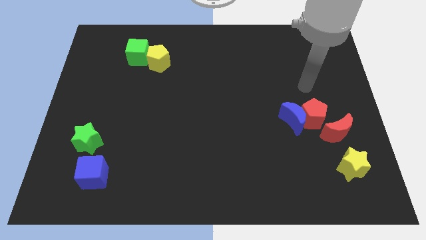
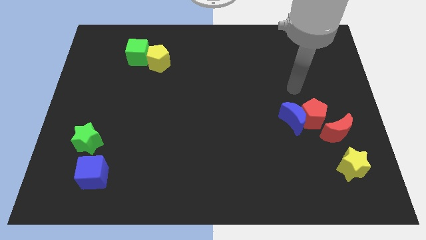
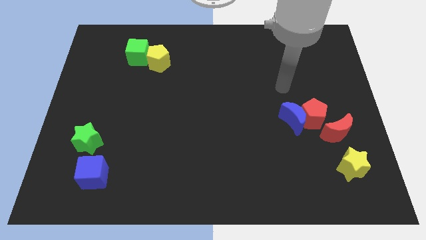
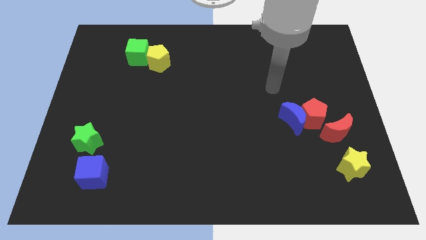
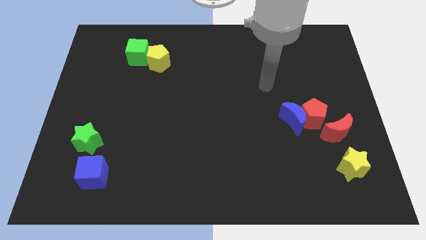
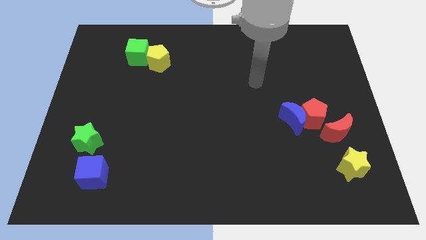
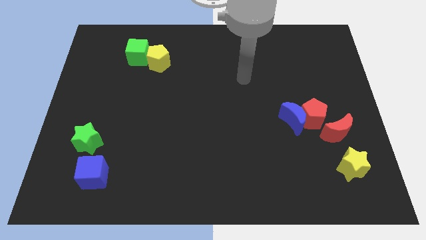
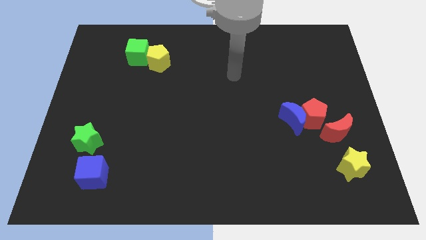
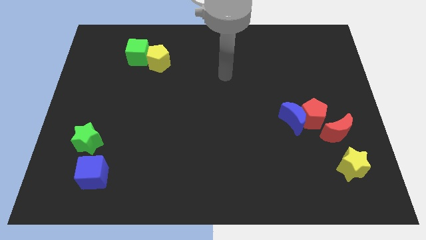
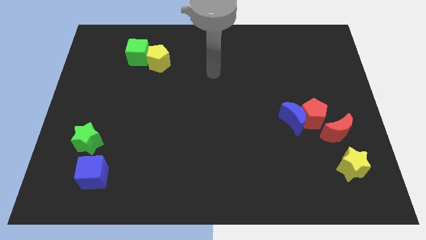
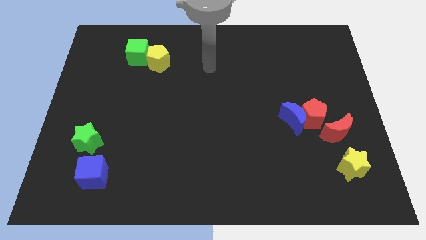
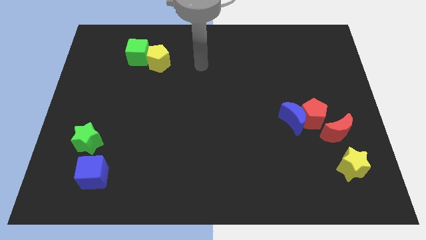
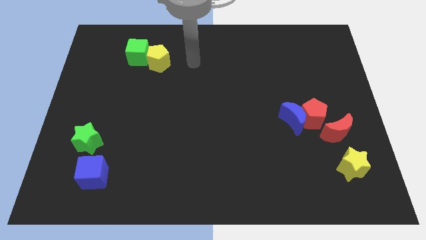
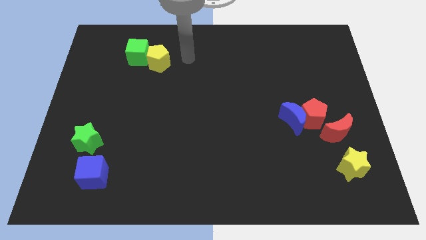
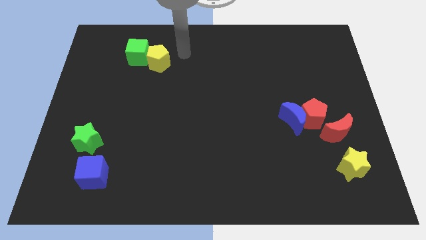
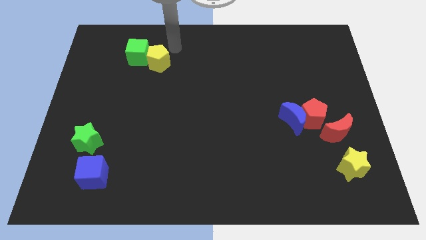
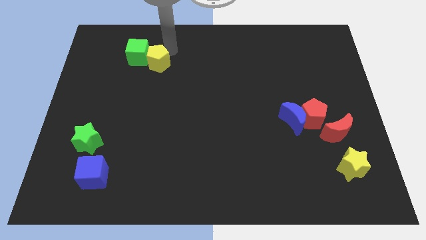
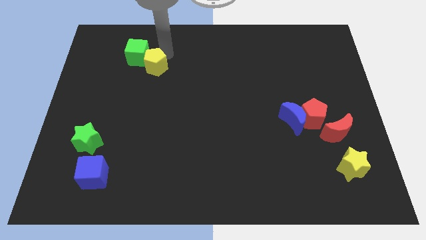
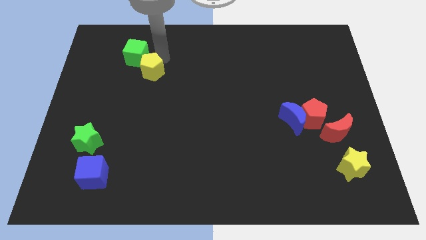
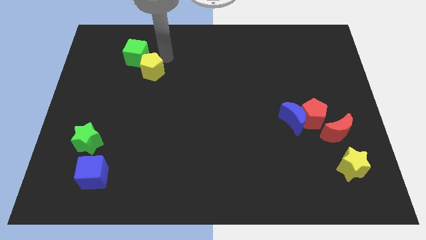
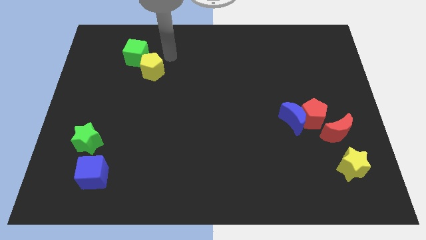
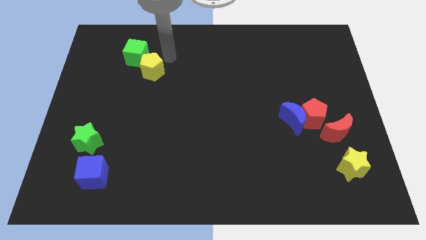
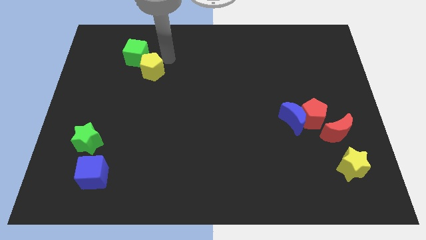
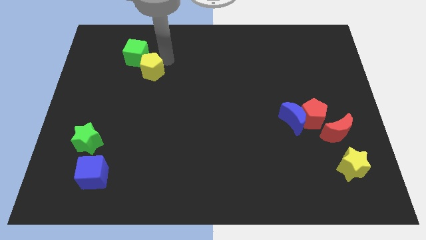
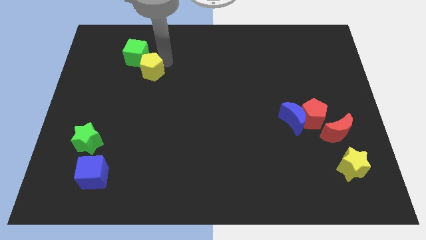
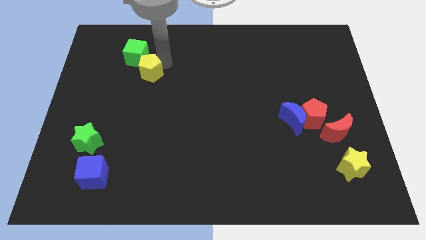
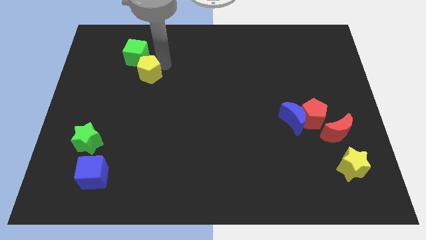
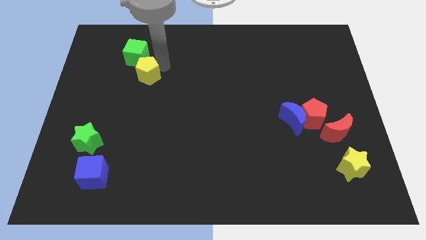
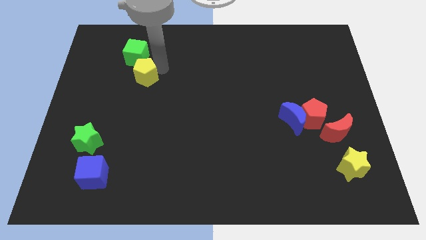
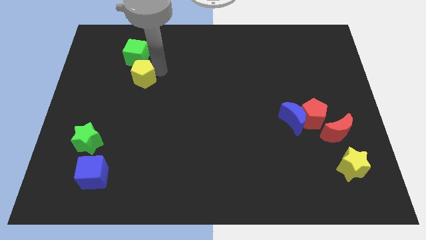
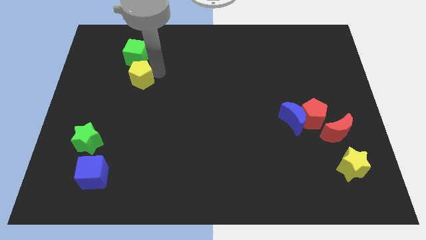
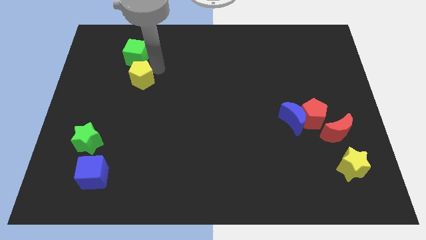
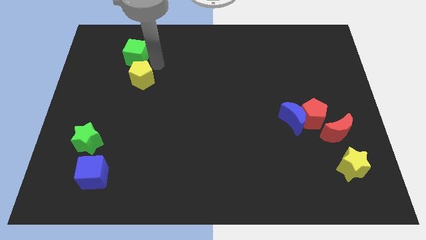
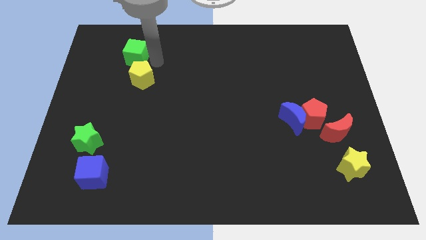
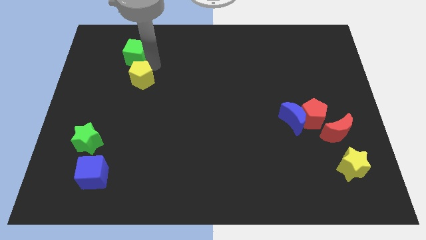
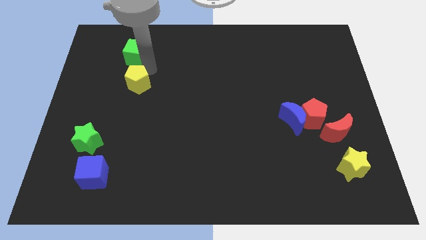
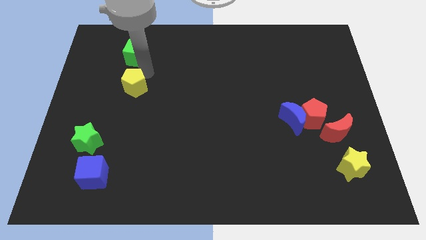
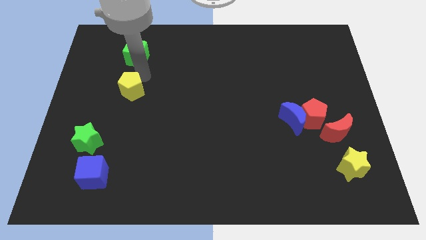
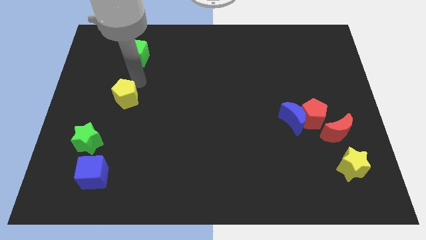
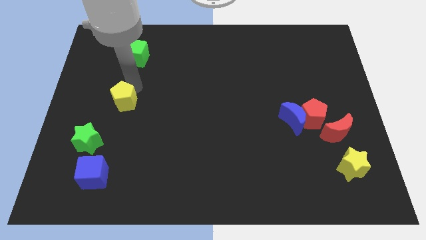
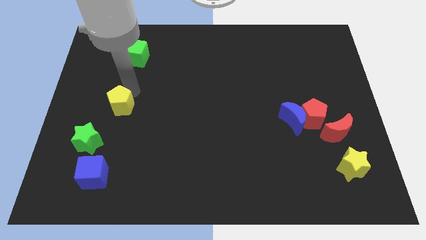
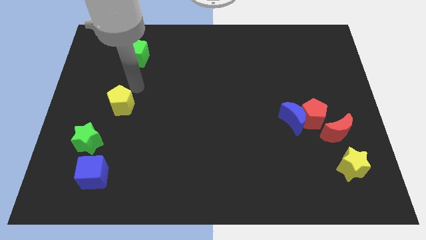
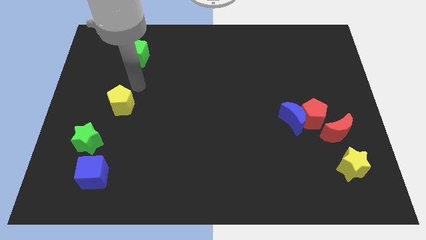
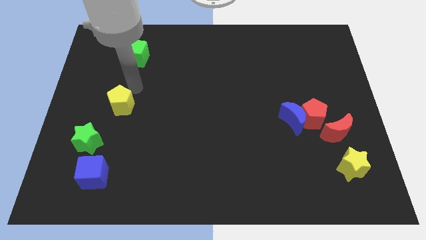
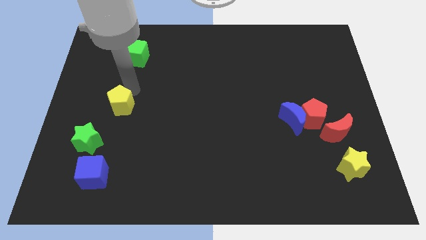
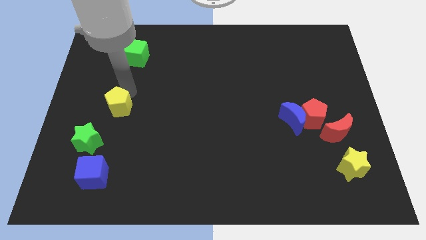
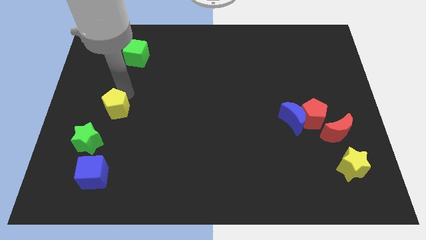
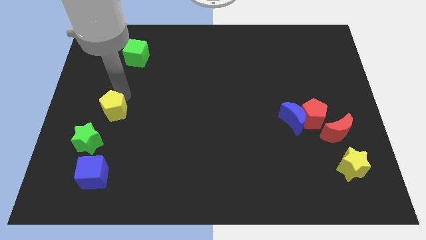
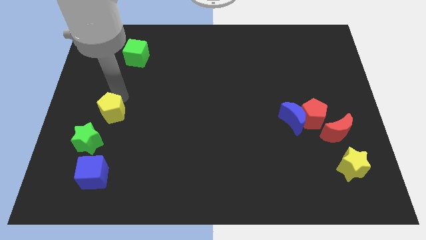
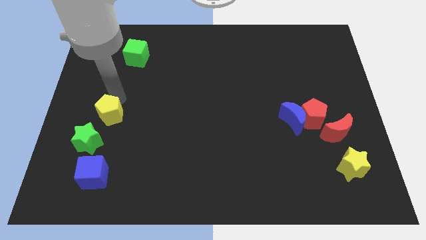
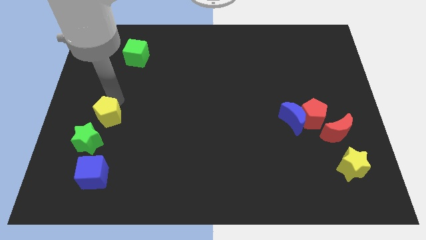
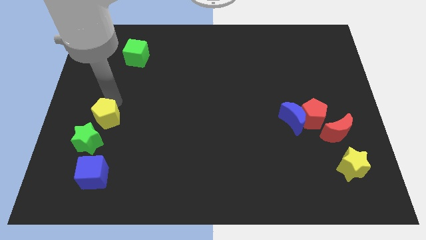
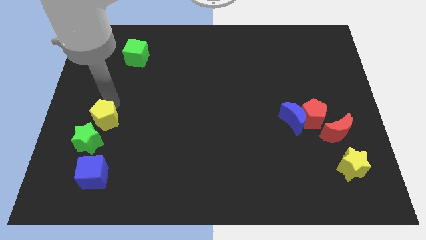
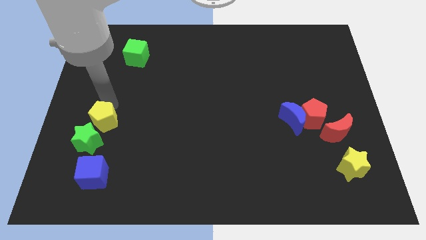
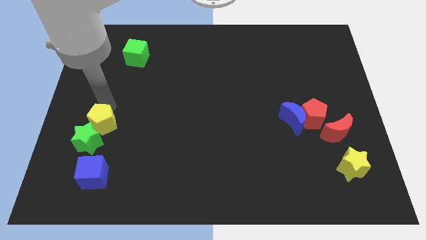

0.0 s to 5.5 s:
slide the yellow pentagon next to the green star

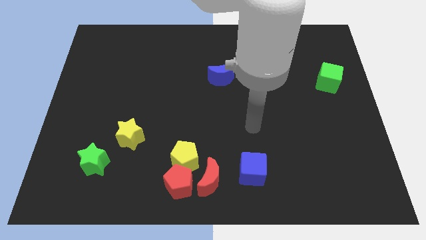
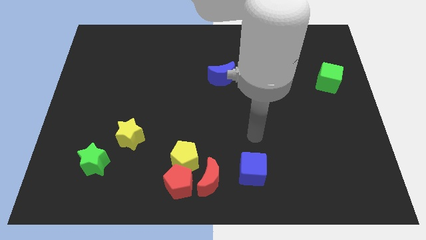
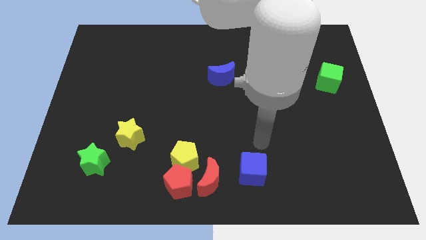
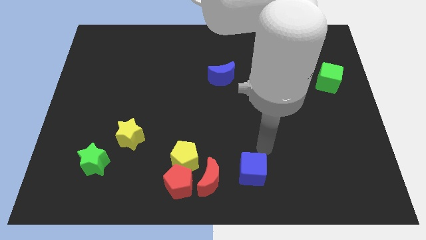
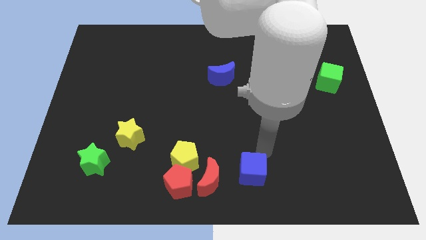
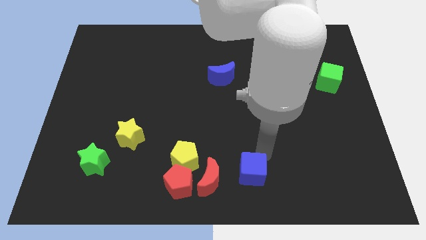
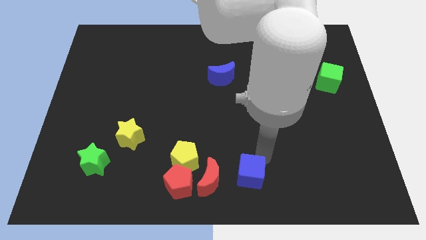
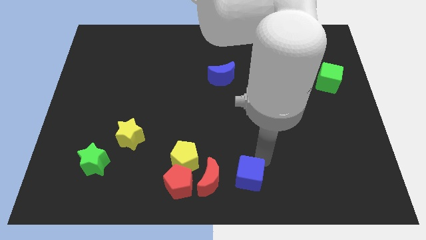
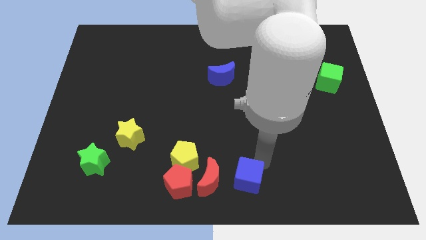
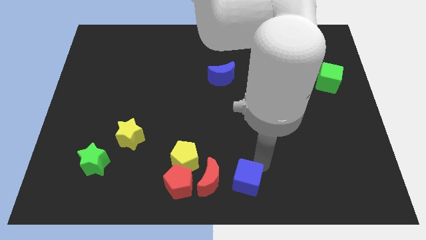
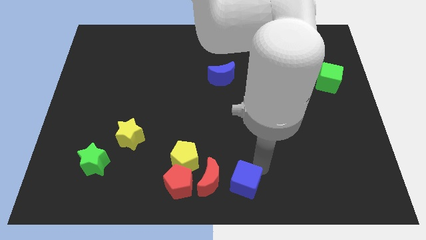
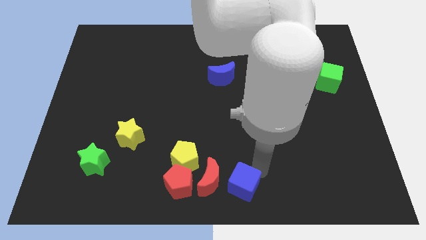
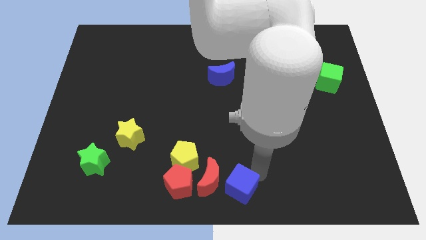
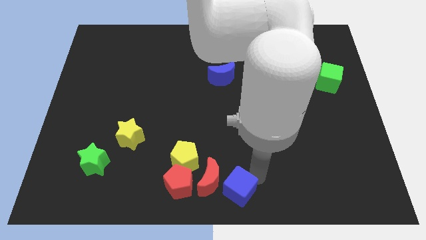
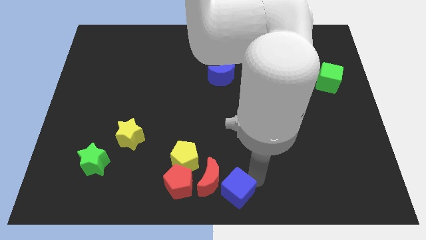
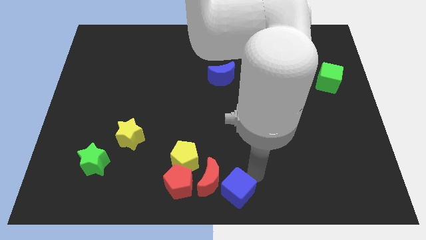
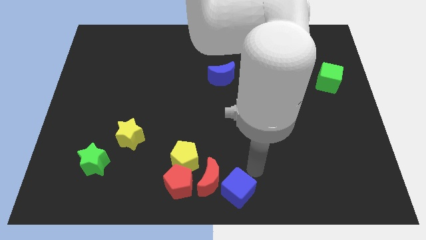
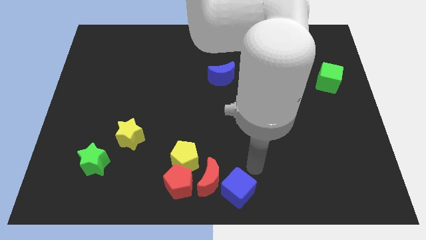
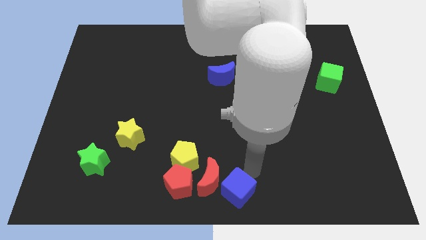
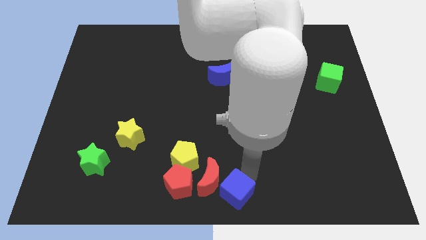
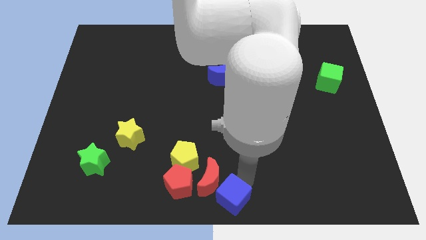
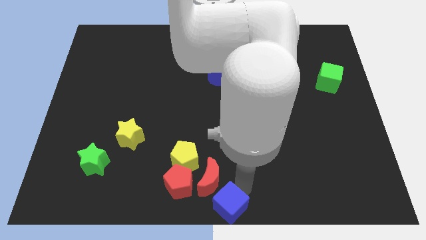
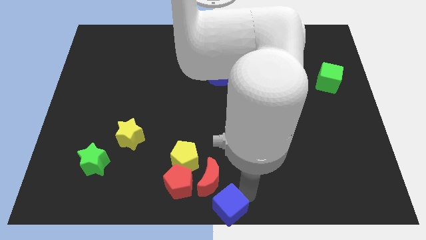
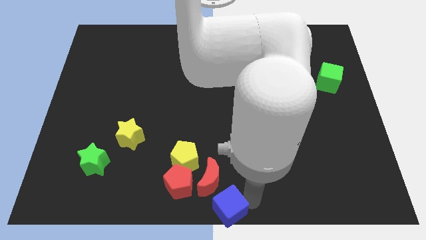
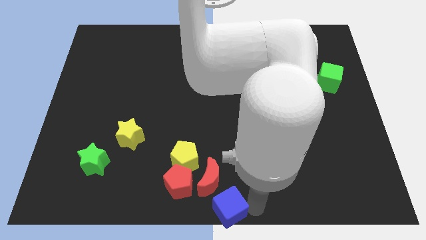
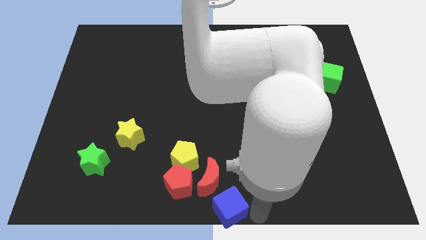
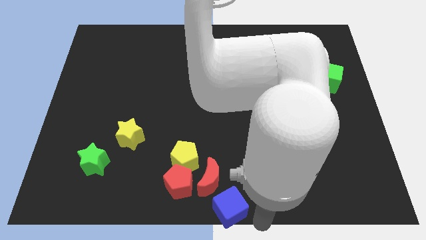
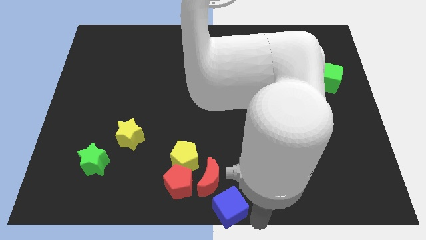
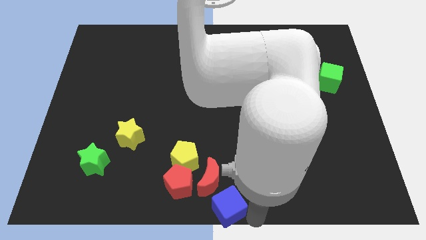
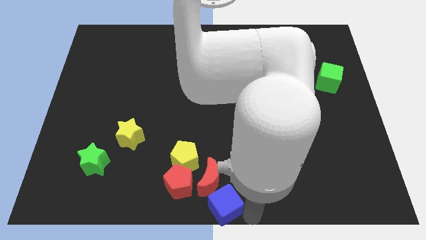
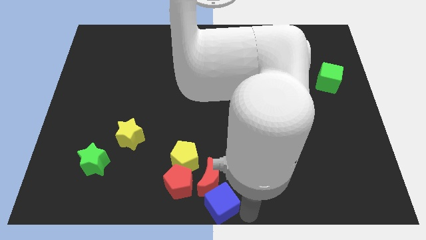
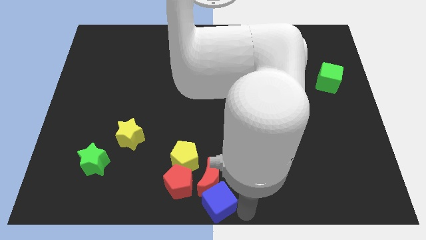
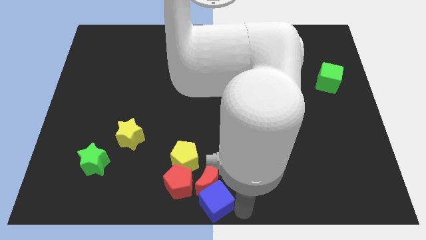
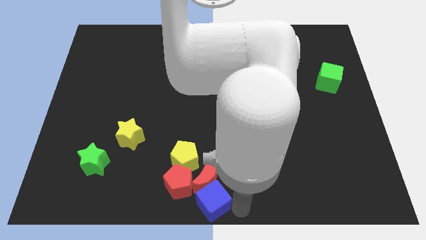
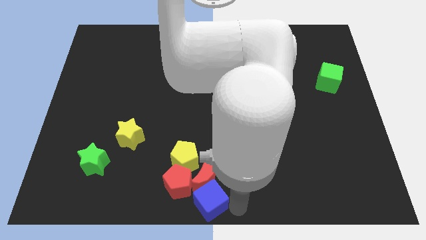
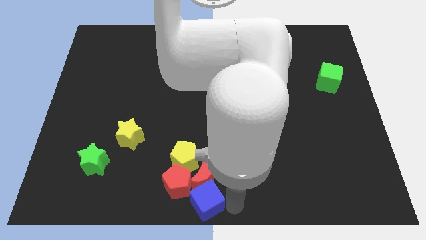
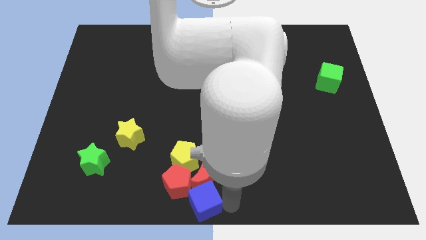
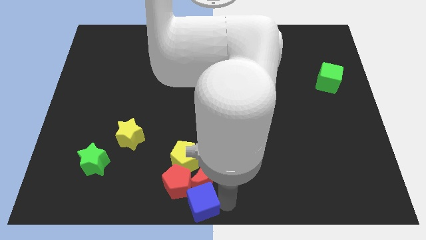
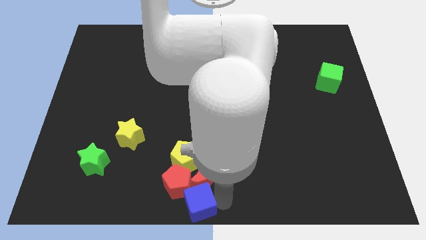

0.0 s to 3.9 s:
put the blue cube next to the red pentagon
